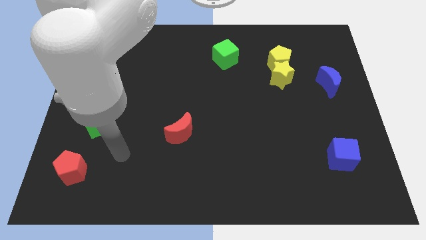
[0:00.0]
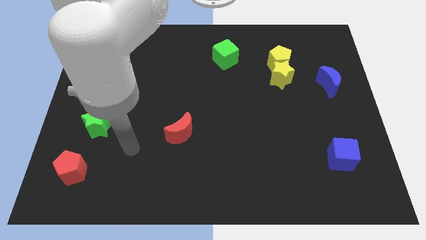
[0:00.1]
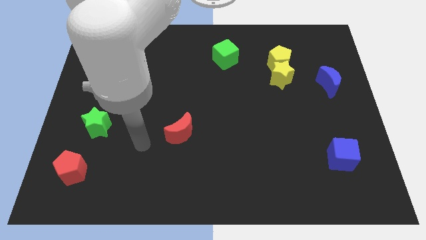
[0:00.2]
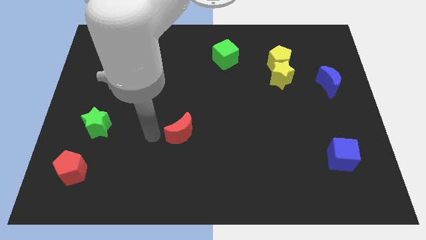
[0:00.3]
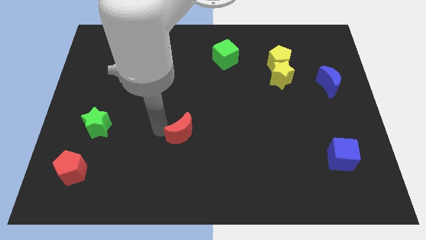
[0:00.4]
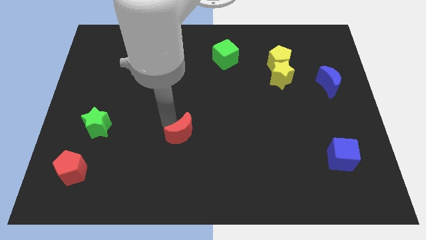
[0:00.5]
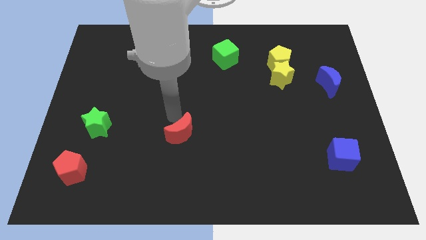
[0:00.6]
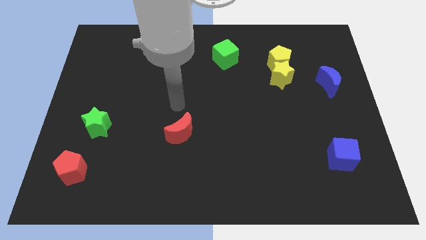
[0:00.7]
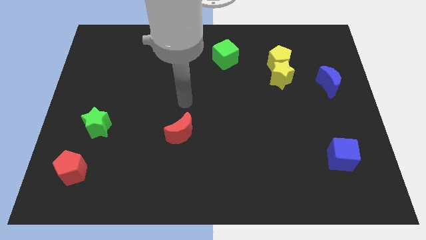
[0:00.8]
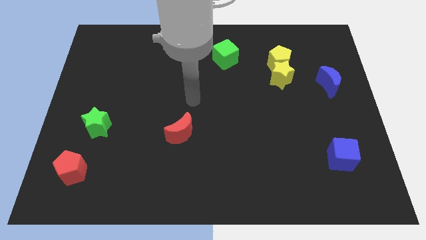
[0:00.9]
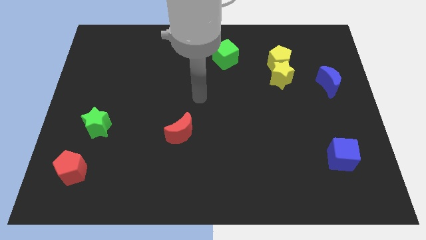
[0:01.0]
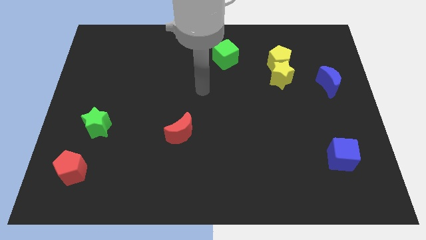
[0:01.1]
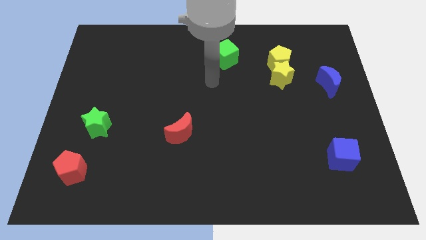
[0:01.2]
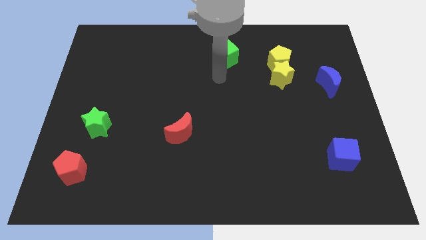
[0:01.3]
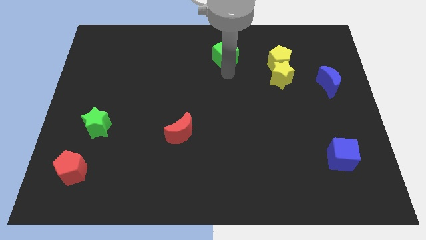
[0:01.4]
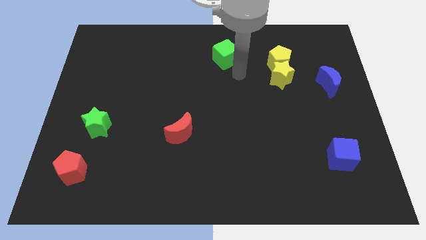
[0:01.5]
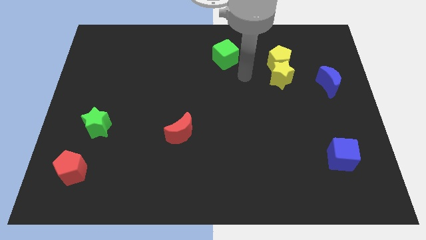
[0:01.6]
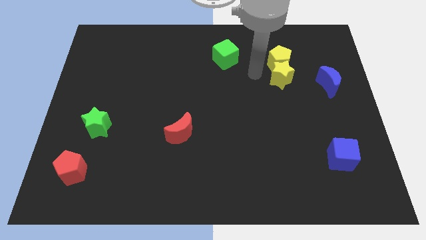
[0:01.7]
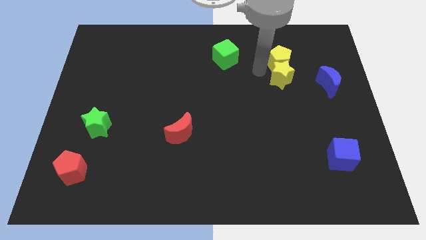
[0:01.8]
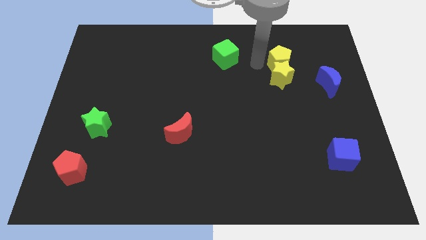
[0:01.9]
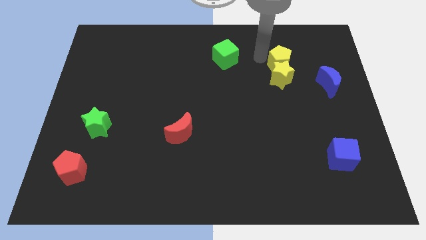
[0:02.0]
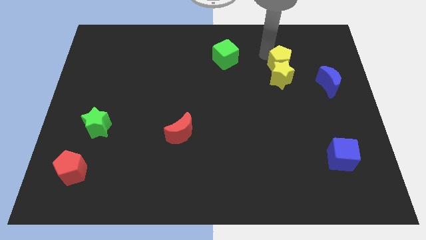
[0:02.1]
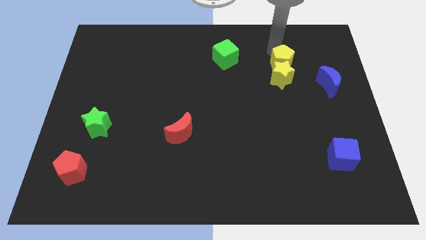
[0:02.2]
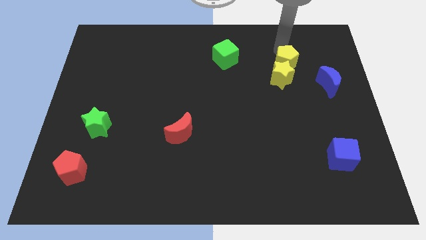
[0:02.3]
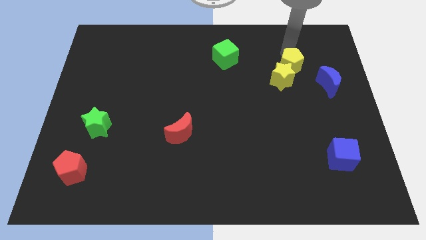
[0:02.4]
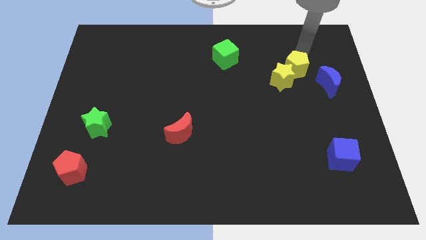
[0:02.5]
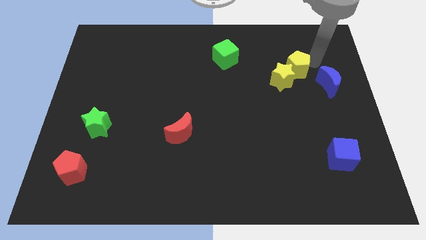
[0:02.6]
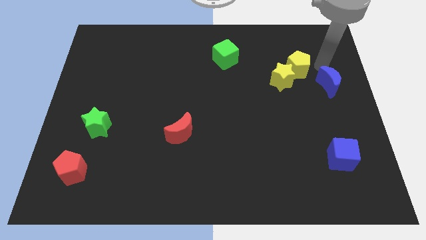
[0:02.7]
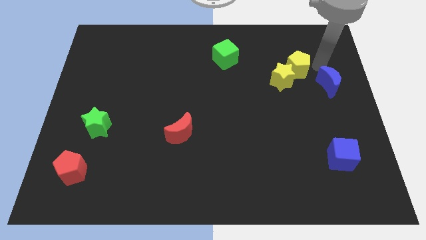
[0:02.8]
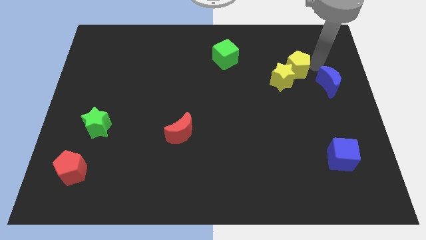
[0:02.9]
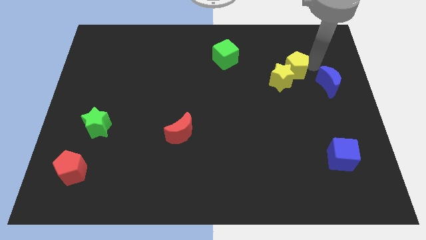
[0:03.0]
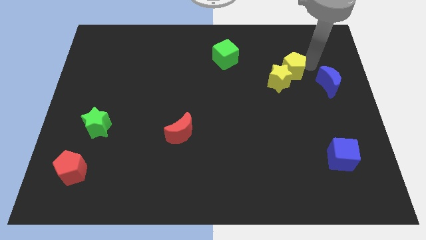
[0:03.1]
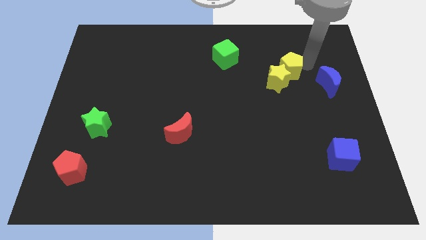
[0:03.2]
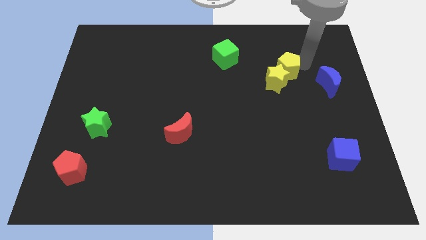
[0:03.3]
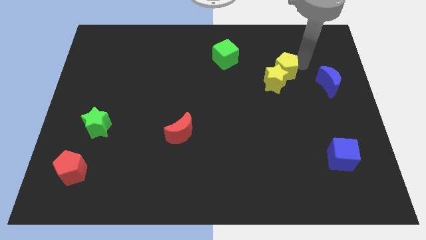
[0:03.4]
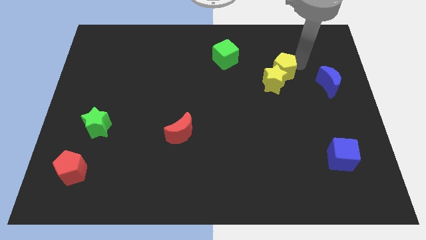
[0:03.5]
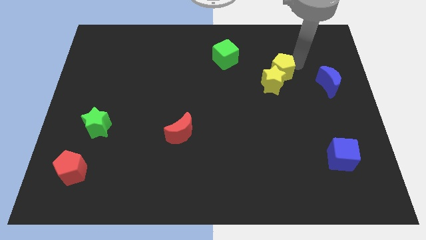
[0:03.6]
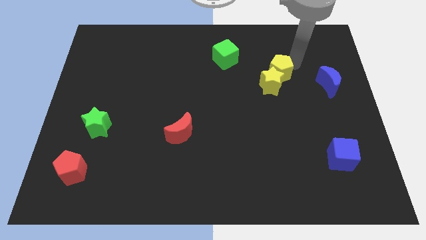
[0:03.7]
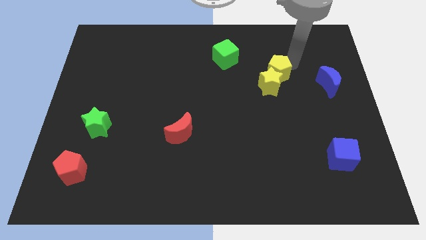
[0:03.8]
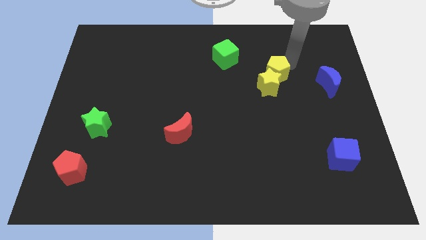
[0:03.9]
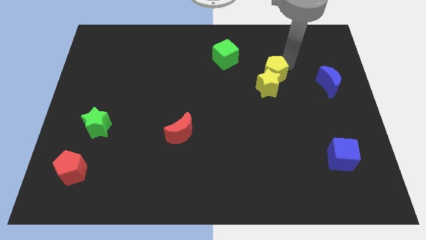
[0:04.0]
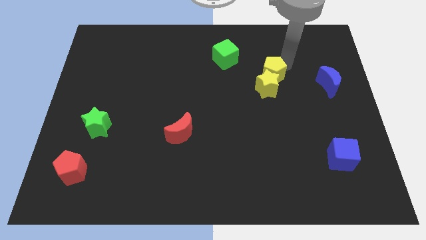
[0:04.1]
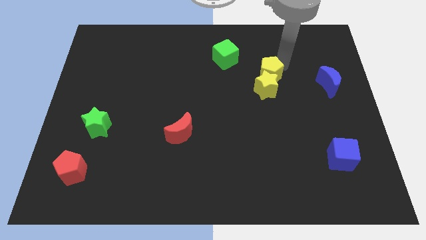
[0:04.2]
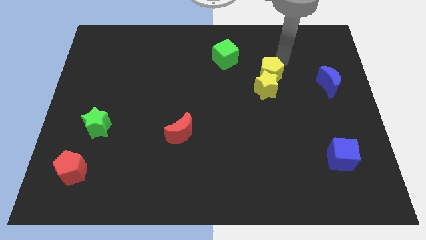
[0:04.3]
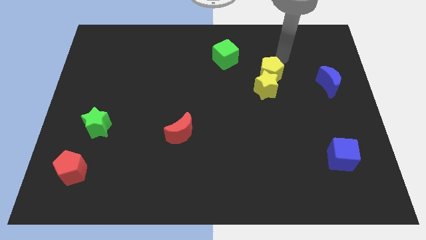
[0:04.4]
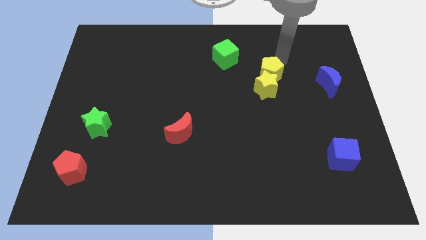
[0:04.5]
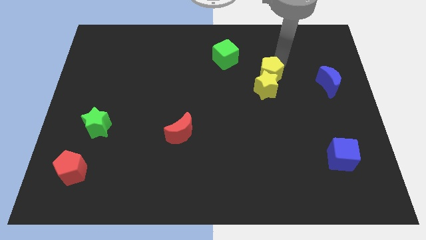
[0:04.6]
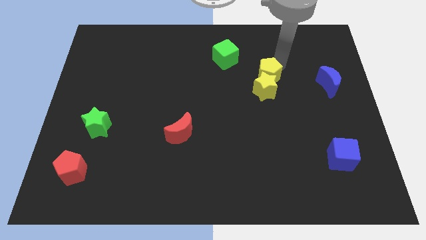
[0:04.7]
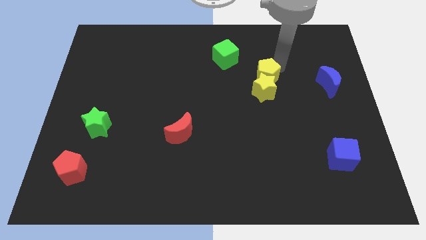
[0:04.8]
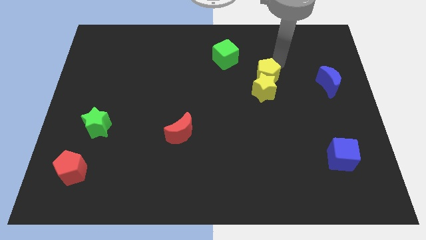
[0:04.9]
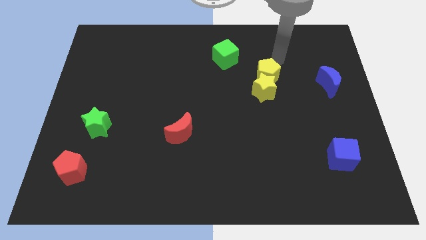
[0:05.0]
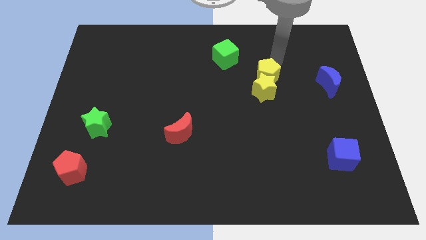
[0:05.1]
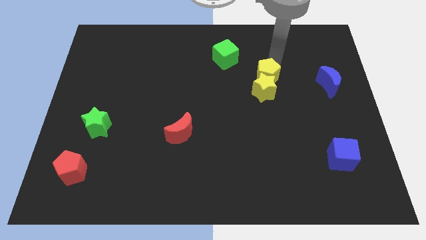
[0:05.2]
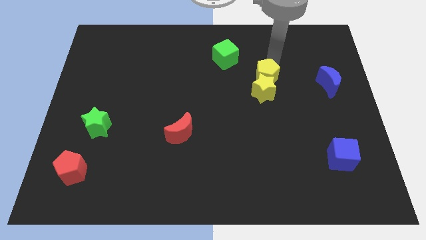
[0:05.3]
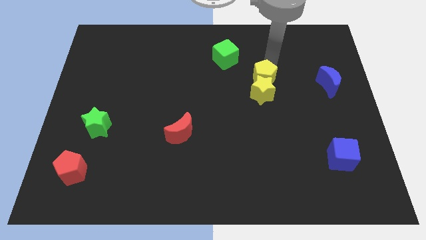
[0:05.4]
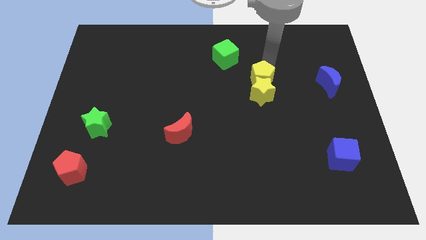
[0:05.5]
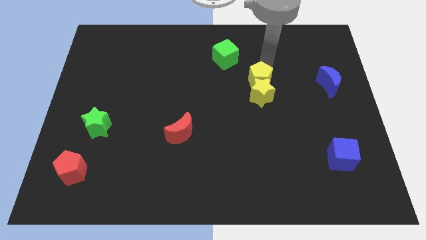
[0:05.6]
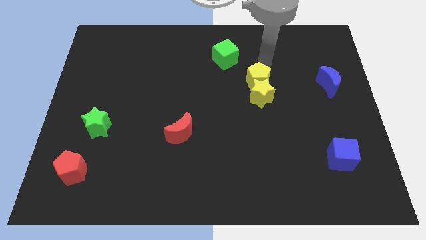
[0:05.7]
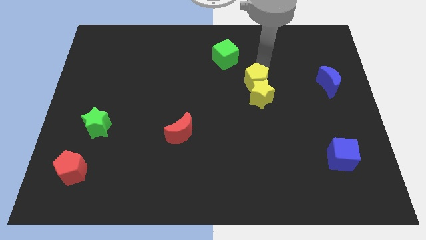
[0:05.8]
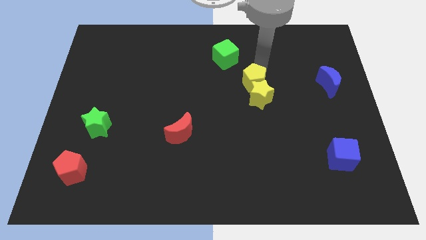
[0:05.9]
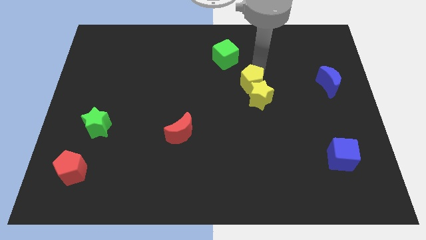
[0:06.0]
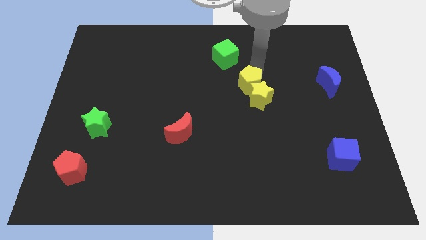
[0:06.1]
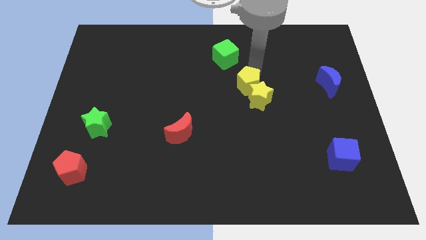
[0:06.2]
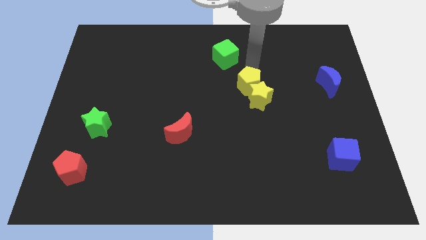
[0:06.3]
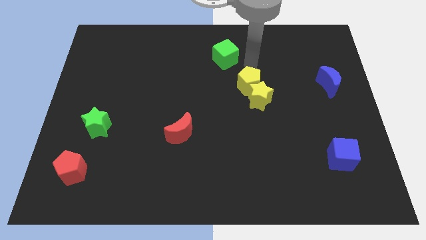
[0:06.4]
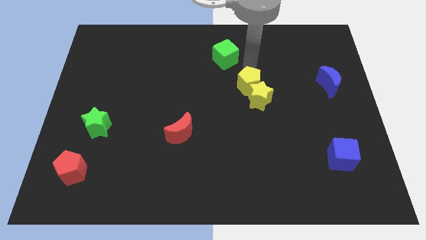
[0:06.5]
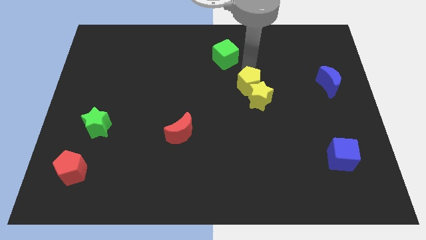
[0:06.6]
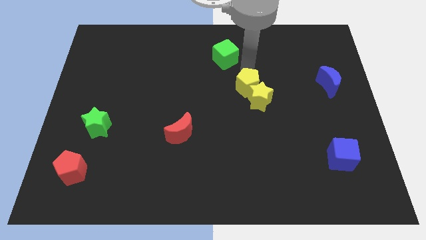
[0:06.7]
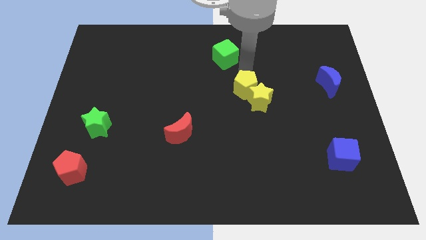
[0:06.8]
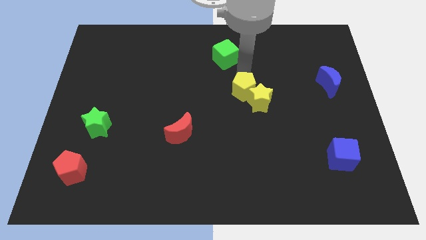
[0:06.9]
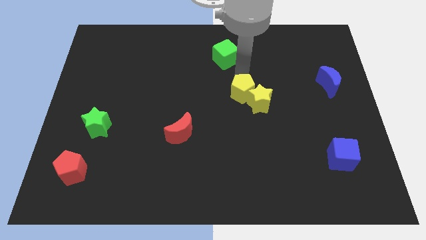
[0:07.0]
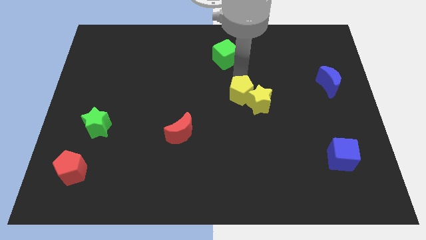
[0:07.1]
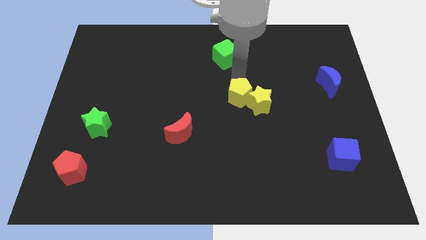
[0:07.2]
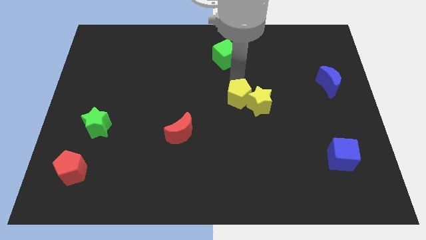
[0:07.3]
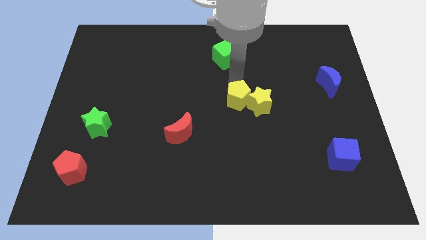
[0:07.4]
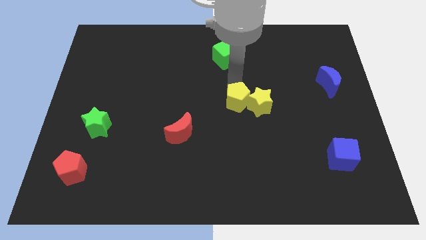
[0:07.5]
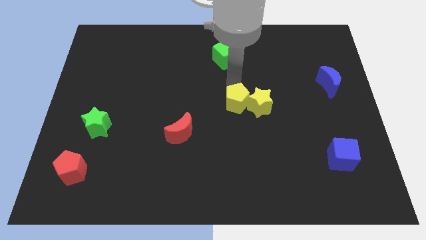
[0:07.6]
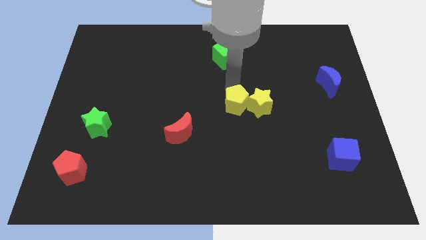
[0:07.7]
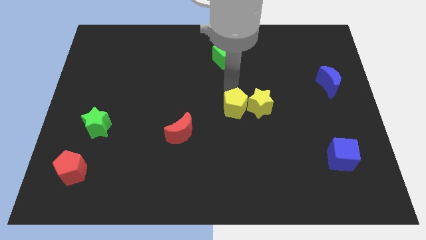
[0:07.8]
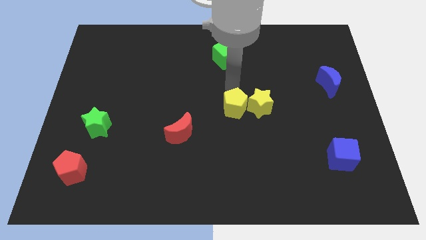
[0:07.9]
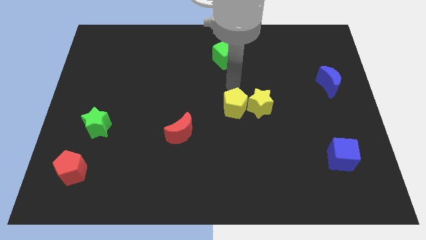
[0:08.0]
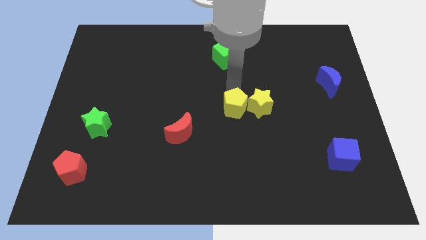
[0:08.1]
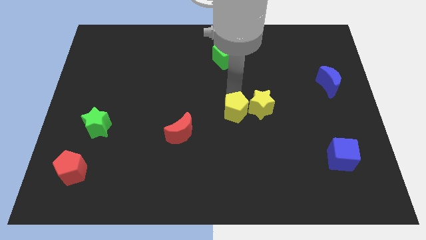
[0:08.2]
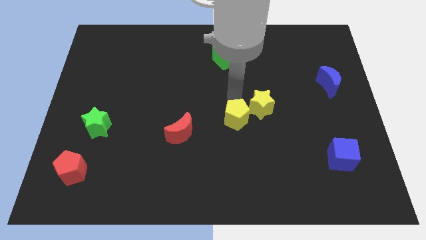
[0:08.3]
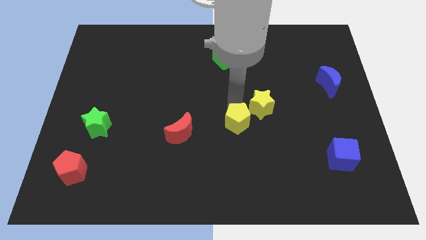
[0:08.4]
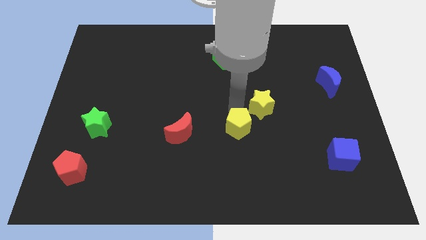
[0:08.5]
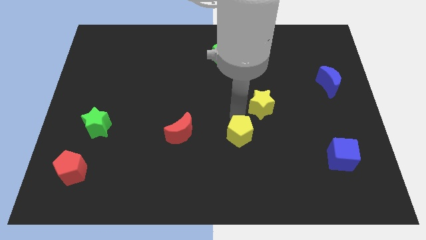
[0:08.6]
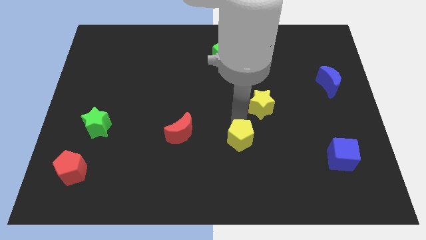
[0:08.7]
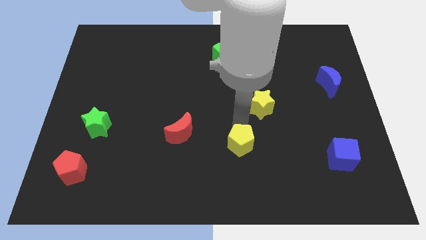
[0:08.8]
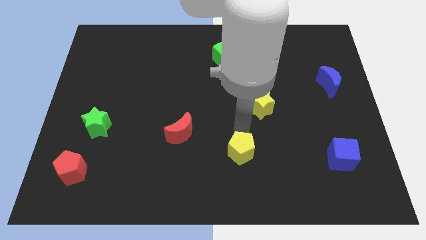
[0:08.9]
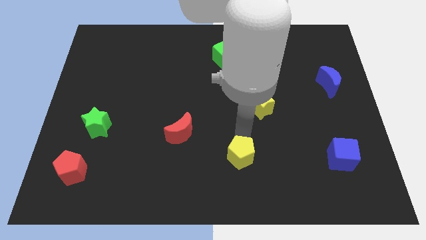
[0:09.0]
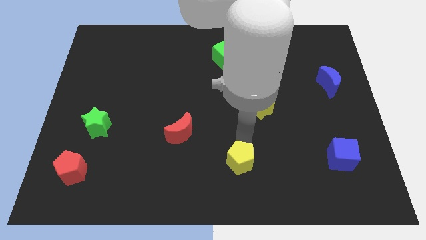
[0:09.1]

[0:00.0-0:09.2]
slide the yellow pentagon to the bottom side
